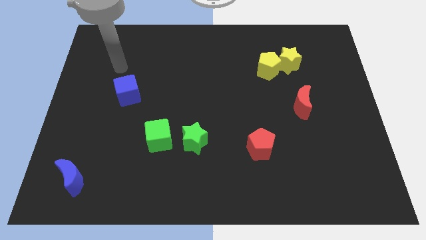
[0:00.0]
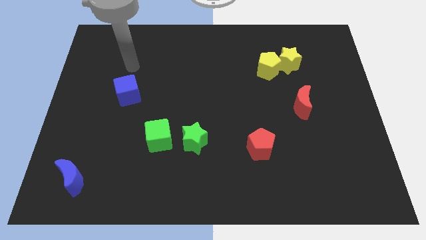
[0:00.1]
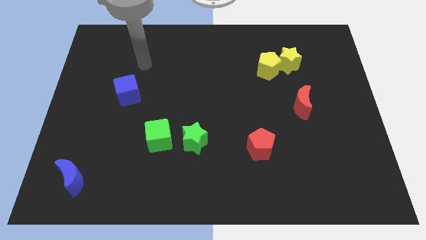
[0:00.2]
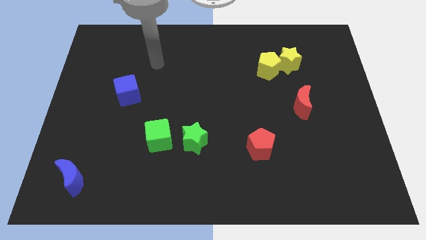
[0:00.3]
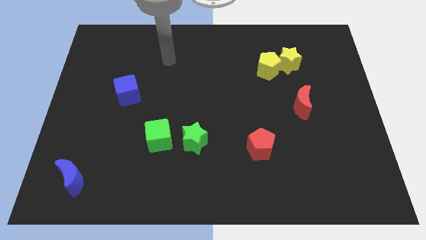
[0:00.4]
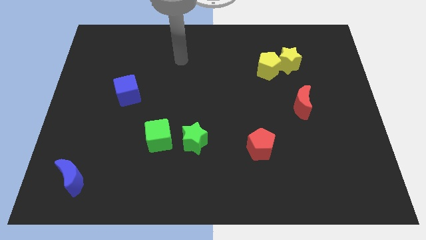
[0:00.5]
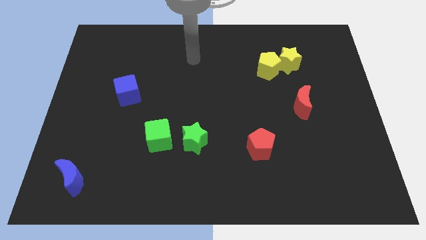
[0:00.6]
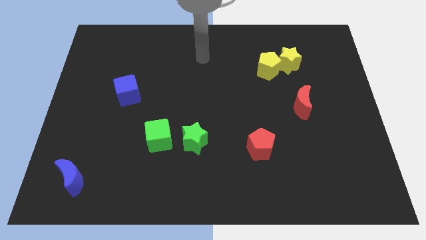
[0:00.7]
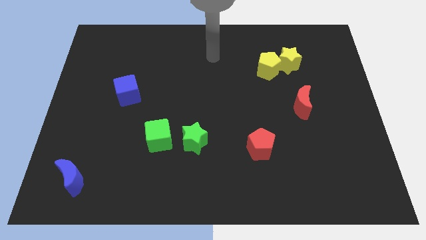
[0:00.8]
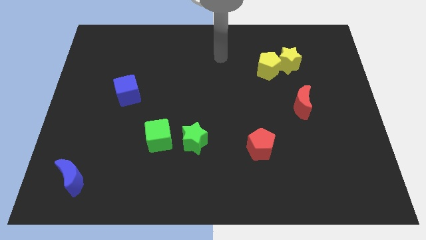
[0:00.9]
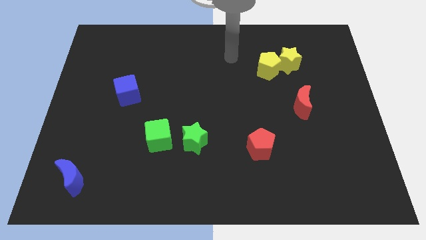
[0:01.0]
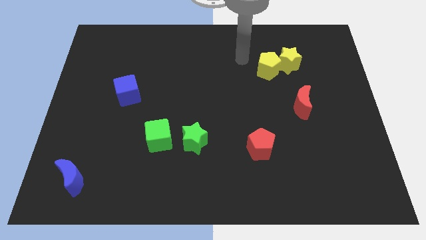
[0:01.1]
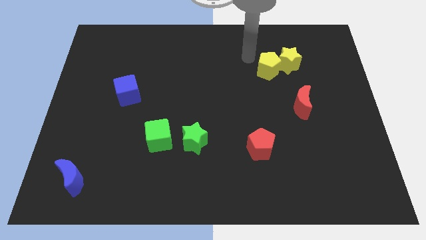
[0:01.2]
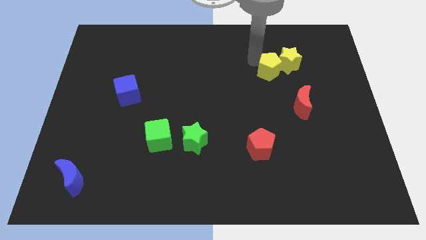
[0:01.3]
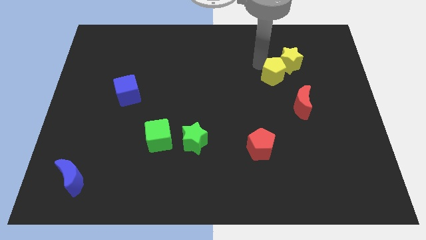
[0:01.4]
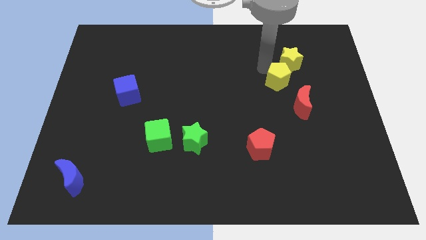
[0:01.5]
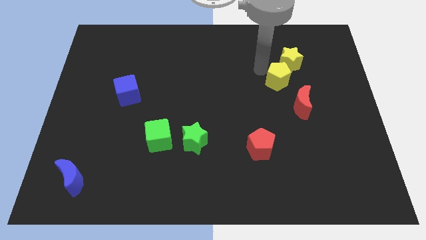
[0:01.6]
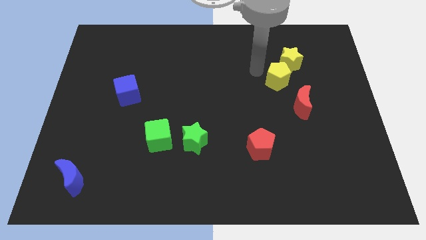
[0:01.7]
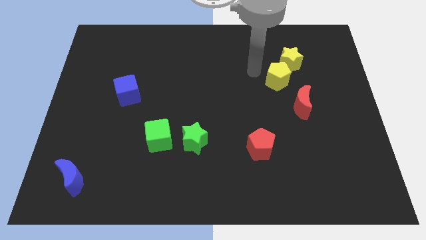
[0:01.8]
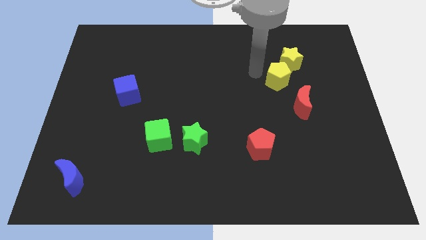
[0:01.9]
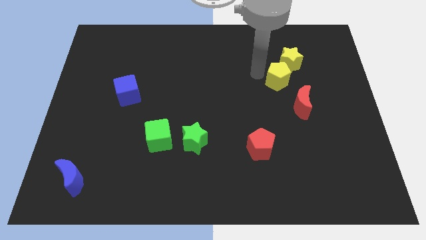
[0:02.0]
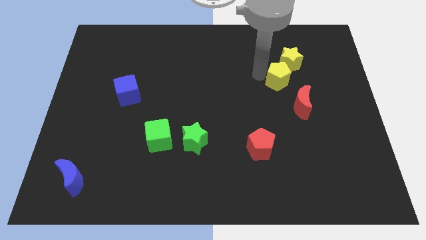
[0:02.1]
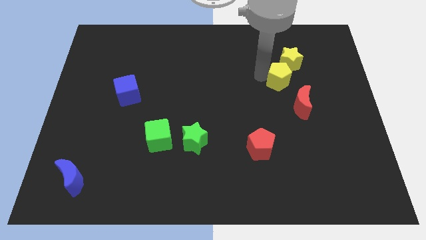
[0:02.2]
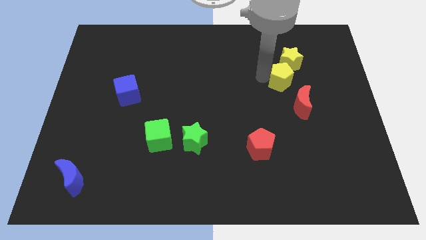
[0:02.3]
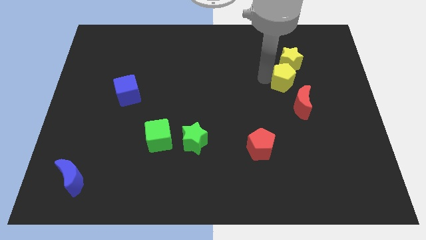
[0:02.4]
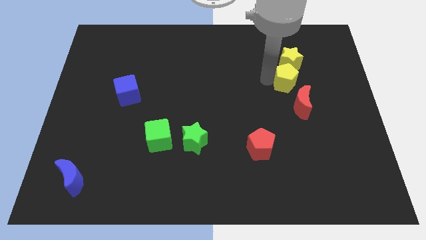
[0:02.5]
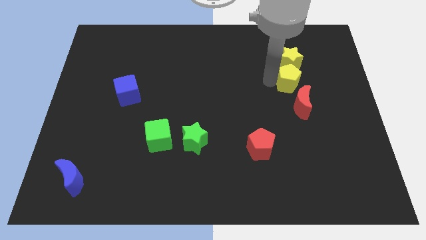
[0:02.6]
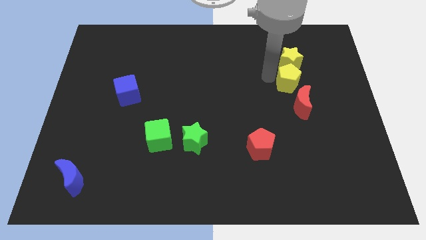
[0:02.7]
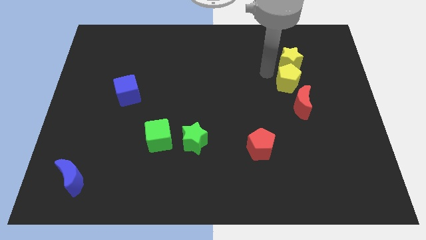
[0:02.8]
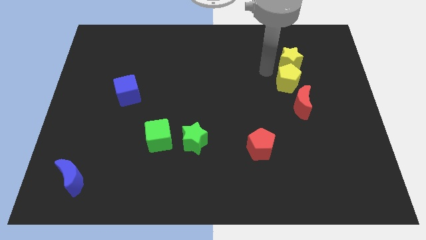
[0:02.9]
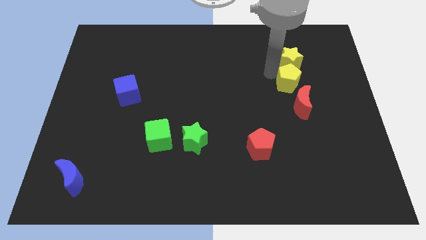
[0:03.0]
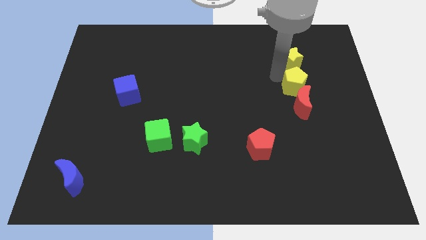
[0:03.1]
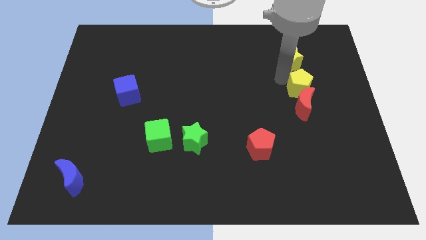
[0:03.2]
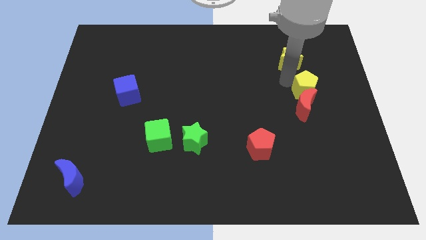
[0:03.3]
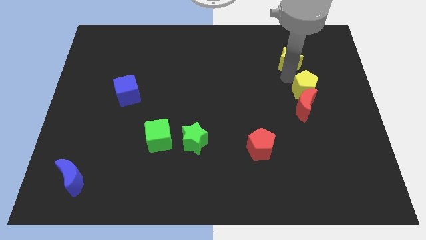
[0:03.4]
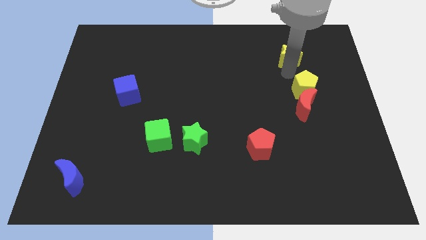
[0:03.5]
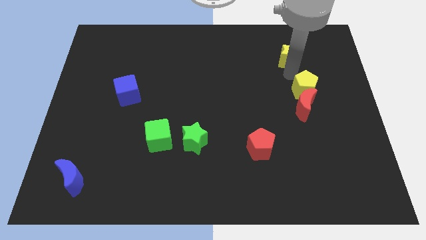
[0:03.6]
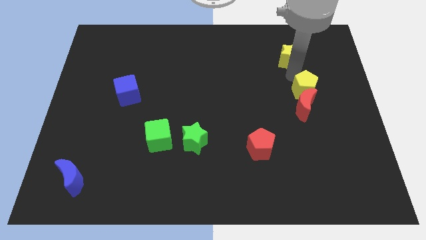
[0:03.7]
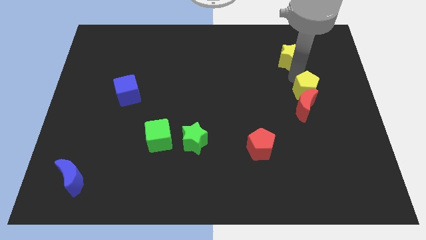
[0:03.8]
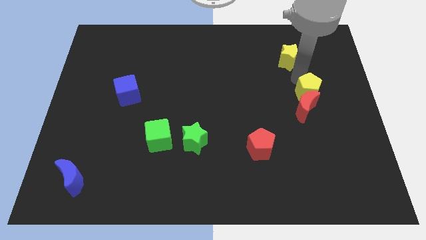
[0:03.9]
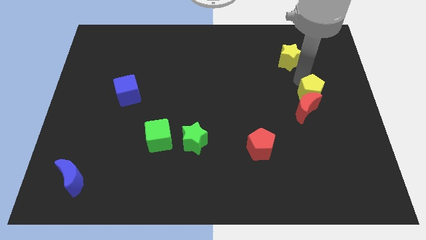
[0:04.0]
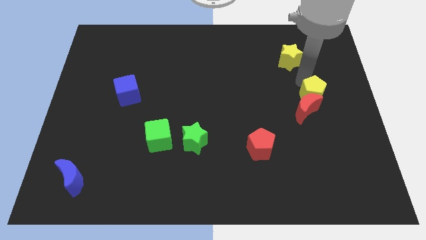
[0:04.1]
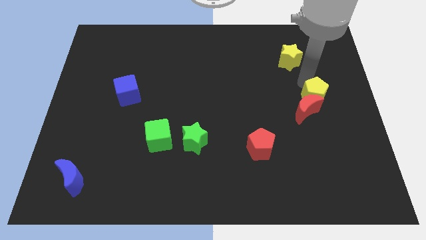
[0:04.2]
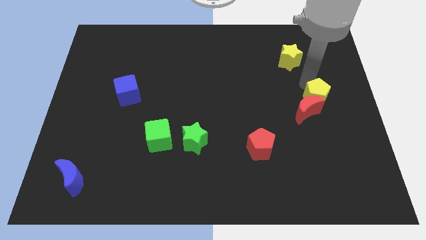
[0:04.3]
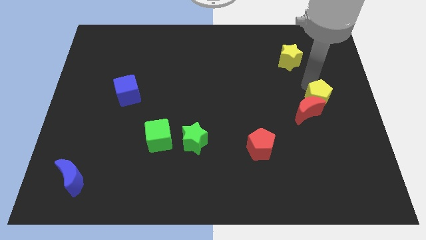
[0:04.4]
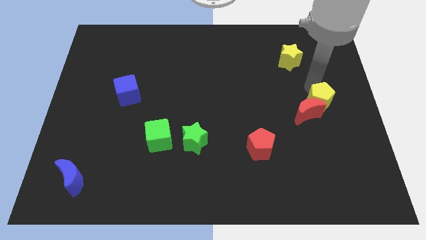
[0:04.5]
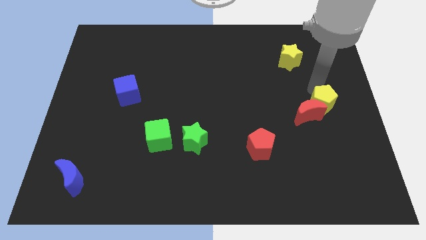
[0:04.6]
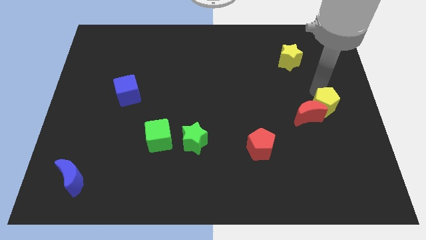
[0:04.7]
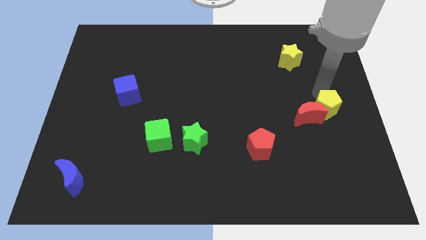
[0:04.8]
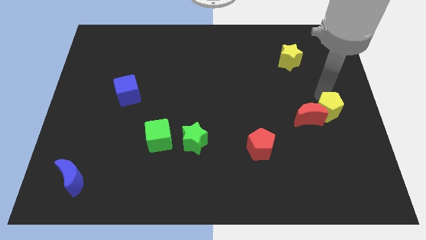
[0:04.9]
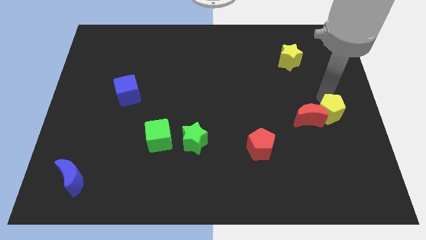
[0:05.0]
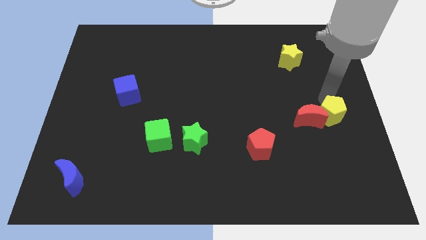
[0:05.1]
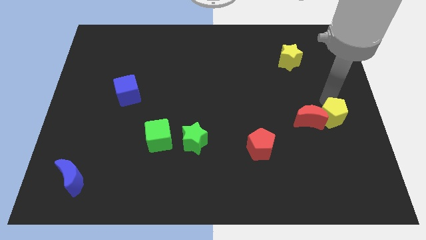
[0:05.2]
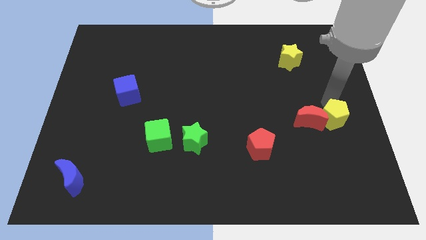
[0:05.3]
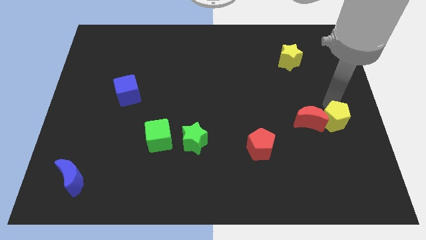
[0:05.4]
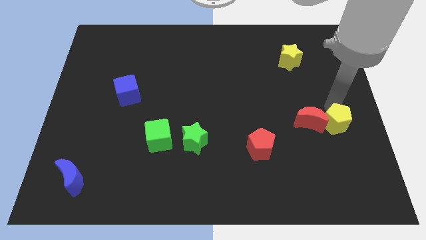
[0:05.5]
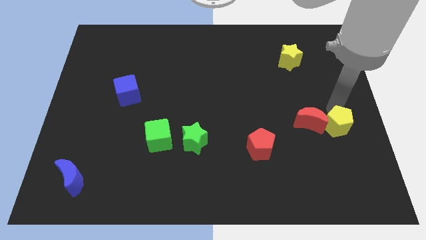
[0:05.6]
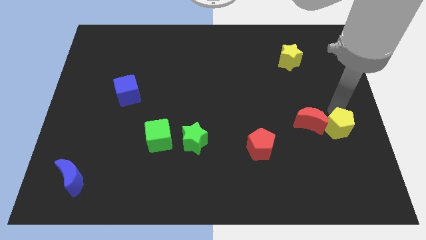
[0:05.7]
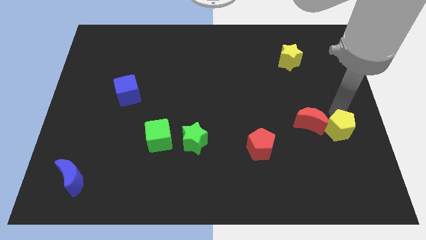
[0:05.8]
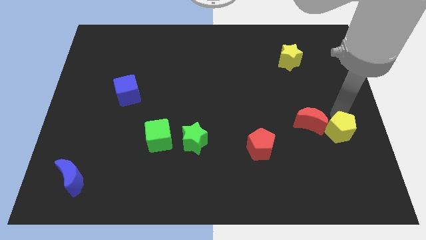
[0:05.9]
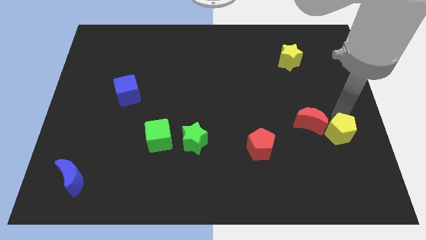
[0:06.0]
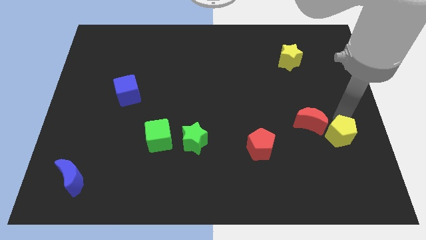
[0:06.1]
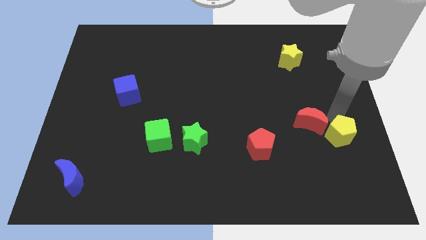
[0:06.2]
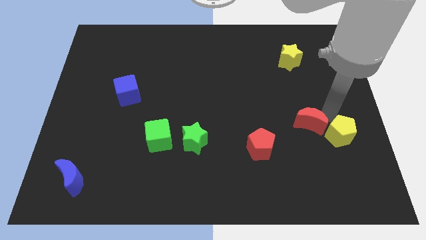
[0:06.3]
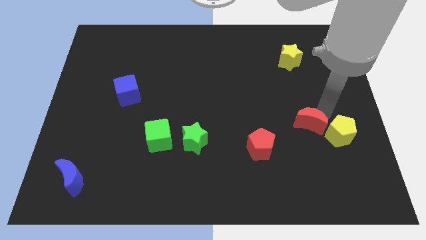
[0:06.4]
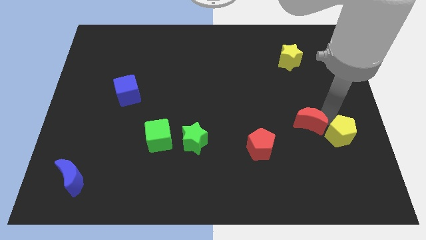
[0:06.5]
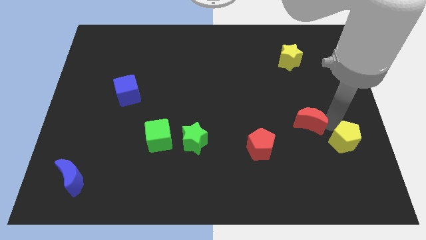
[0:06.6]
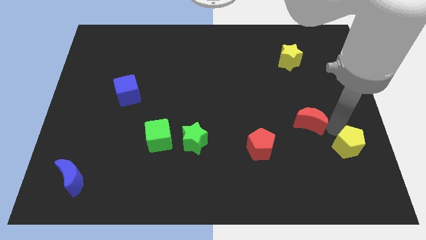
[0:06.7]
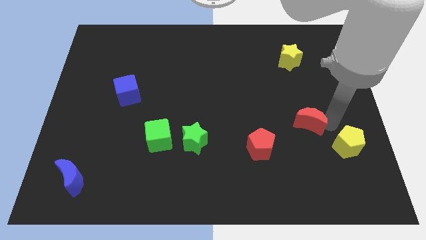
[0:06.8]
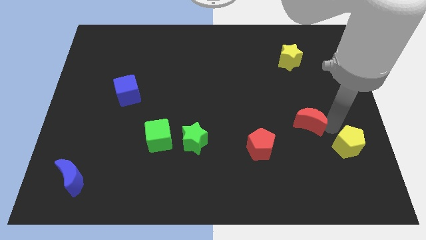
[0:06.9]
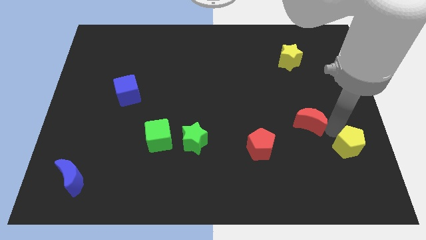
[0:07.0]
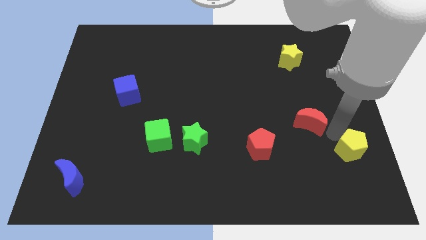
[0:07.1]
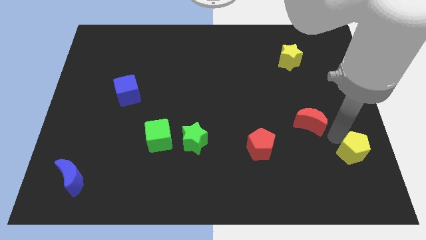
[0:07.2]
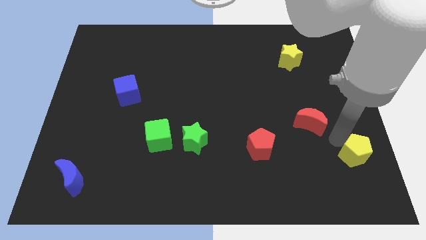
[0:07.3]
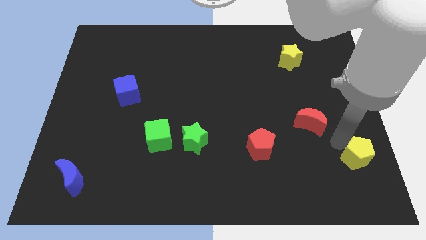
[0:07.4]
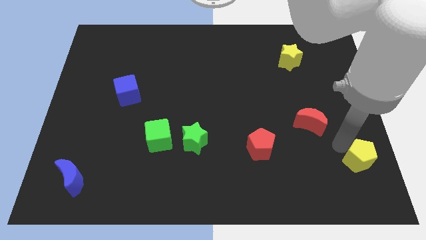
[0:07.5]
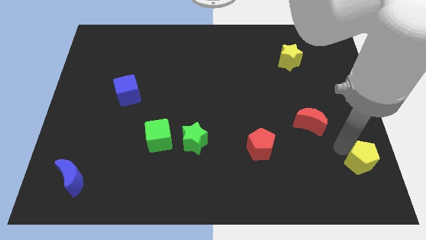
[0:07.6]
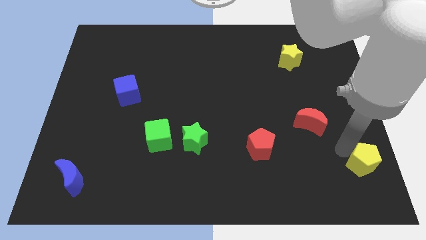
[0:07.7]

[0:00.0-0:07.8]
slide the yellow pentagon to the bottom right of the board
